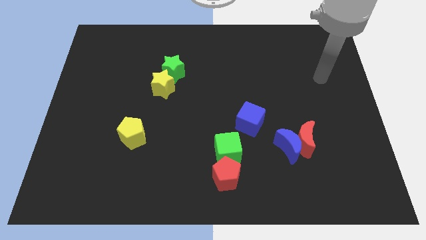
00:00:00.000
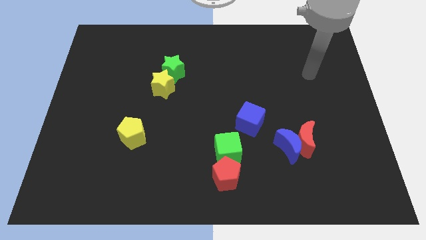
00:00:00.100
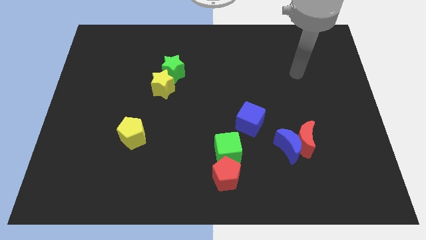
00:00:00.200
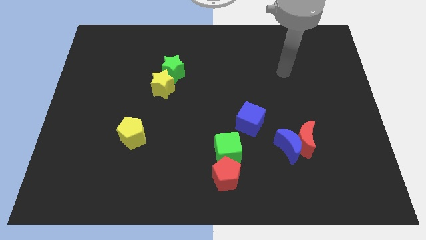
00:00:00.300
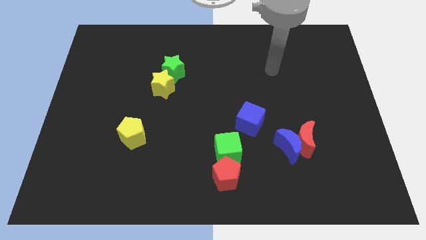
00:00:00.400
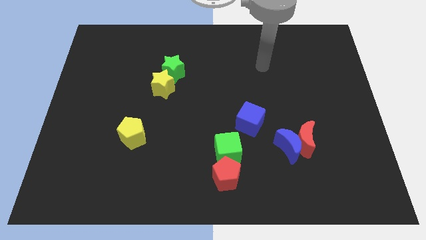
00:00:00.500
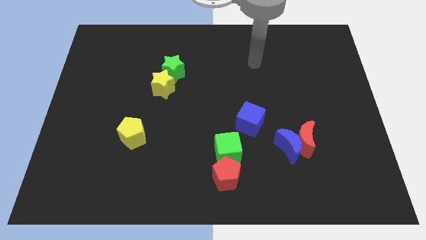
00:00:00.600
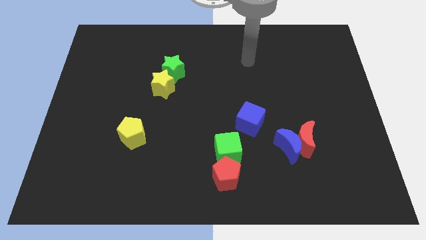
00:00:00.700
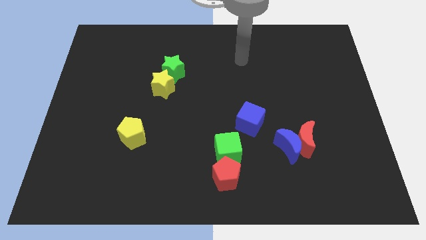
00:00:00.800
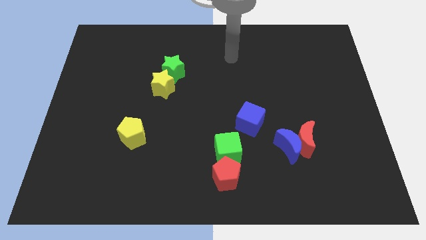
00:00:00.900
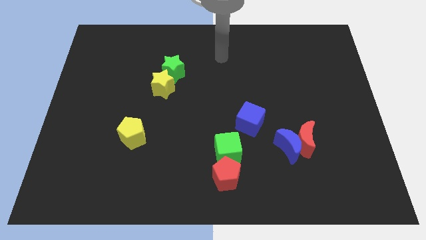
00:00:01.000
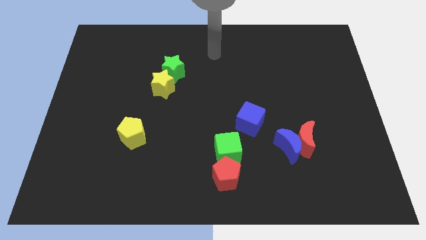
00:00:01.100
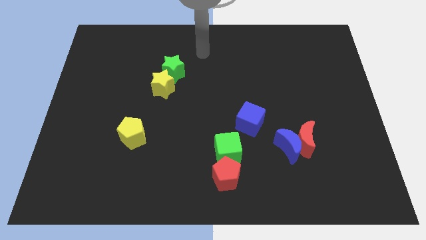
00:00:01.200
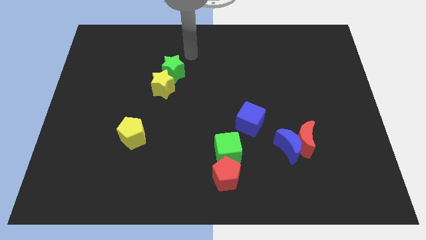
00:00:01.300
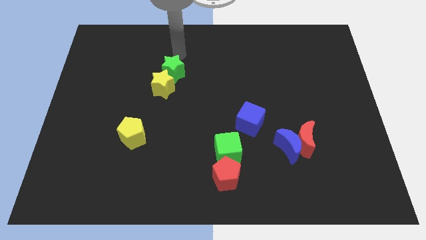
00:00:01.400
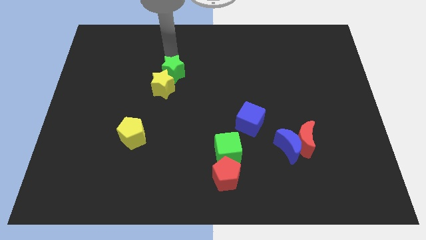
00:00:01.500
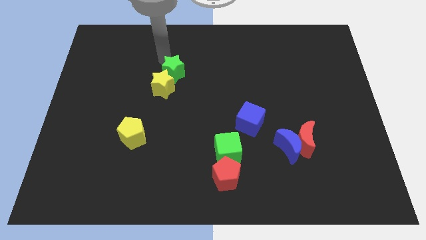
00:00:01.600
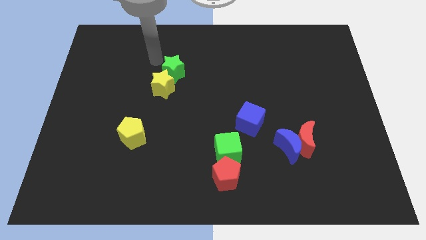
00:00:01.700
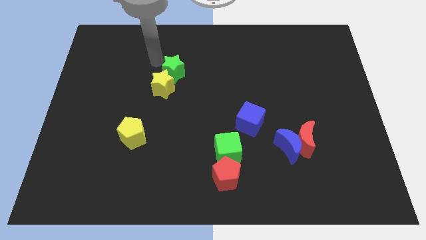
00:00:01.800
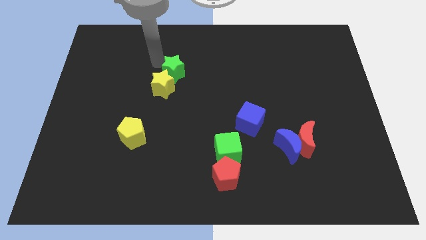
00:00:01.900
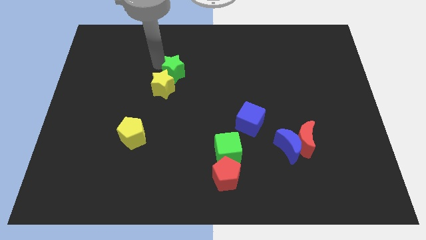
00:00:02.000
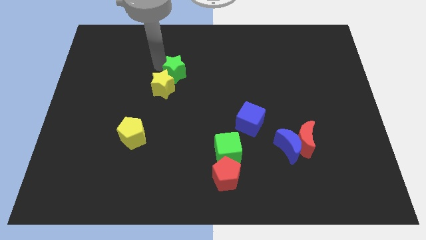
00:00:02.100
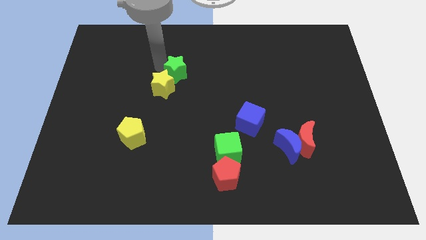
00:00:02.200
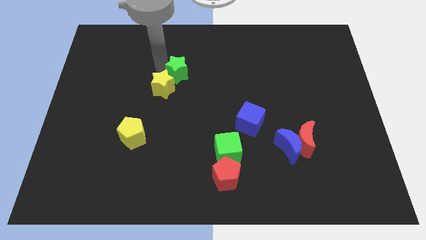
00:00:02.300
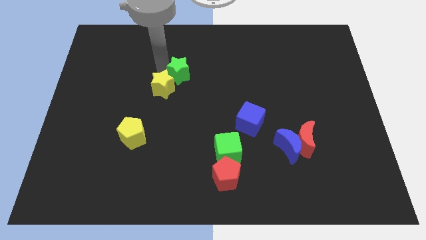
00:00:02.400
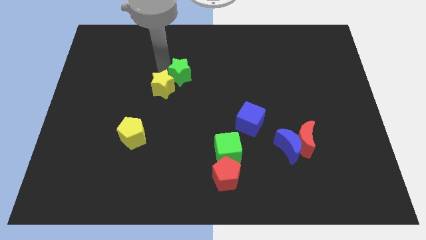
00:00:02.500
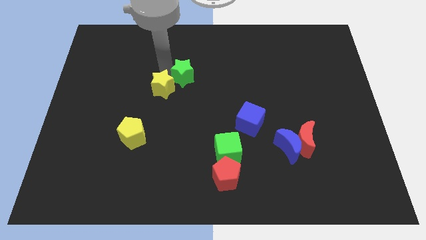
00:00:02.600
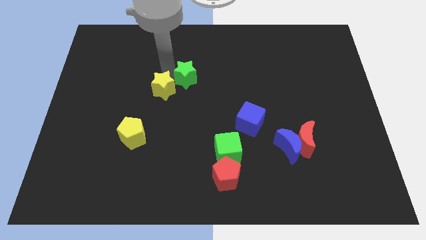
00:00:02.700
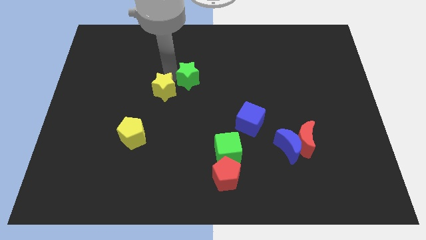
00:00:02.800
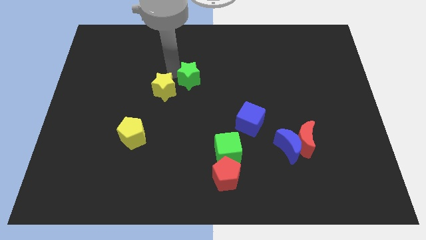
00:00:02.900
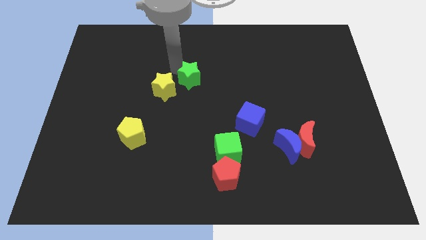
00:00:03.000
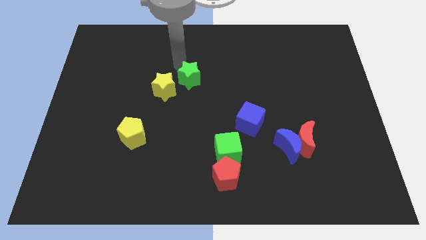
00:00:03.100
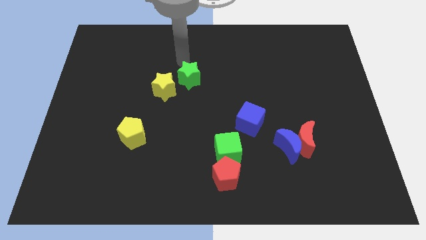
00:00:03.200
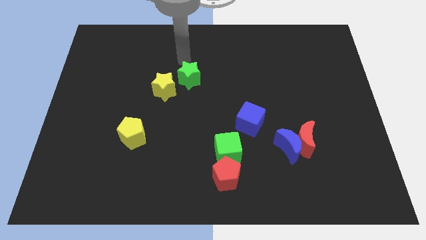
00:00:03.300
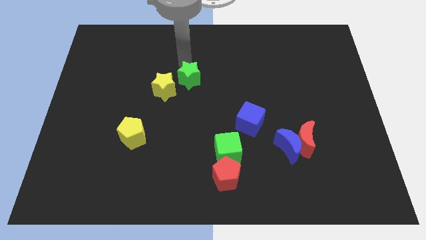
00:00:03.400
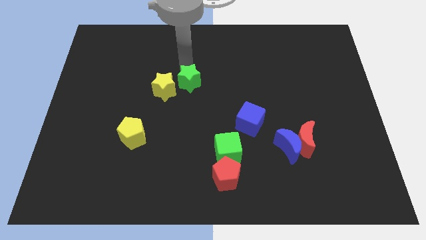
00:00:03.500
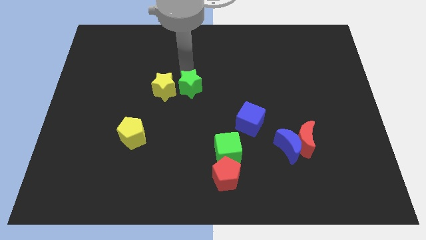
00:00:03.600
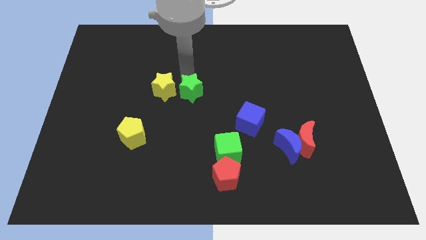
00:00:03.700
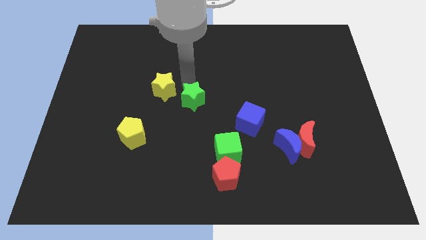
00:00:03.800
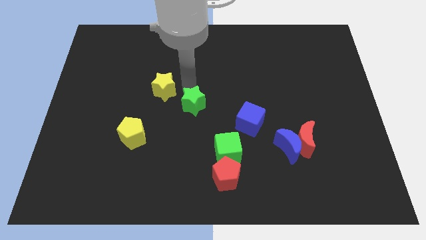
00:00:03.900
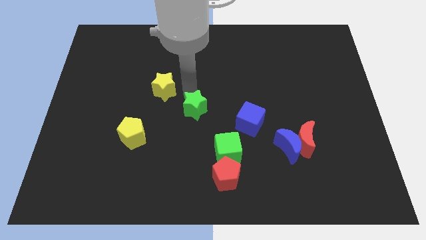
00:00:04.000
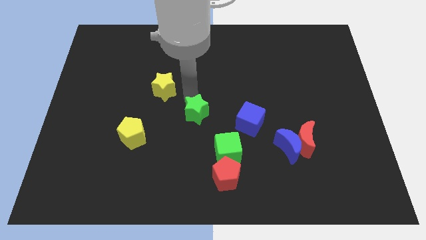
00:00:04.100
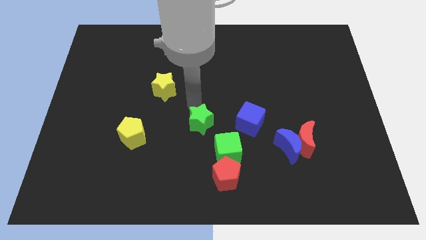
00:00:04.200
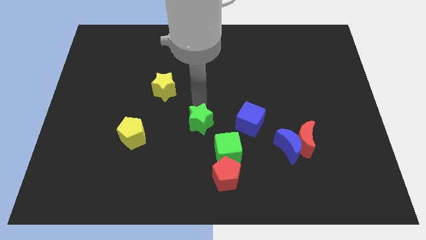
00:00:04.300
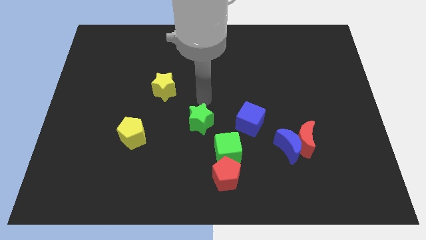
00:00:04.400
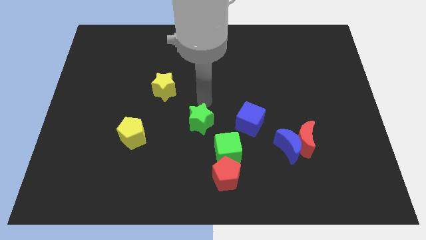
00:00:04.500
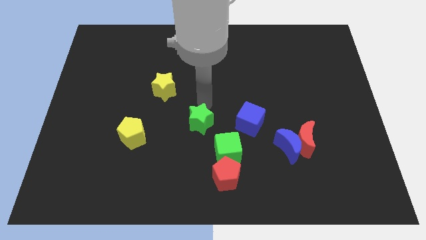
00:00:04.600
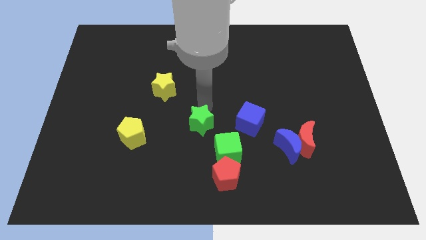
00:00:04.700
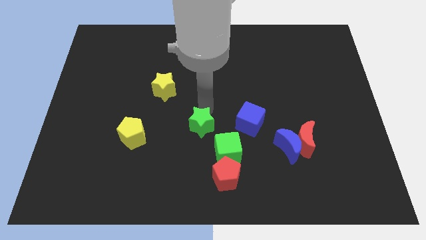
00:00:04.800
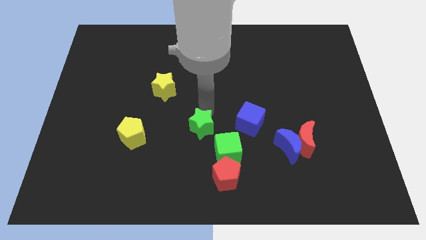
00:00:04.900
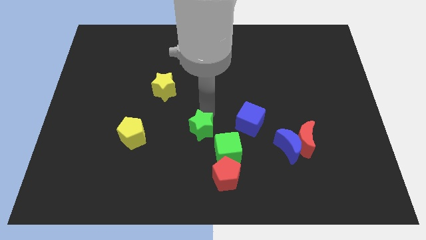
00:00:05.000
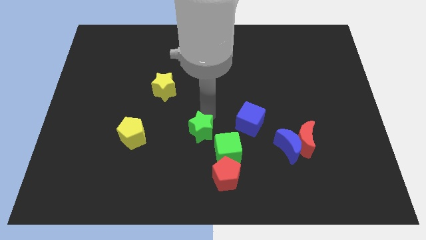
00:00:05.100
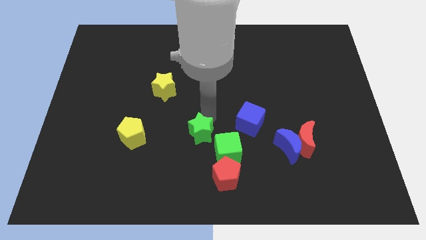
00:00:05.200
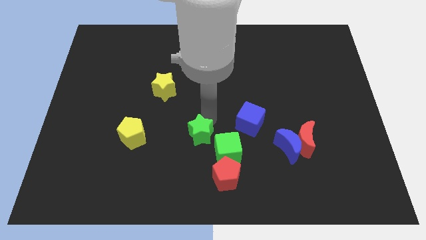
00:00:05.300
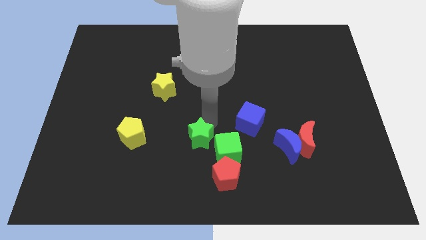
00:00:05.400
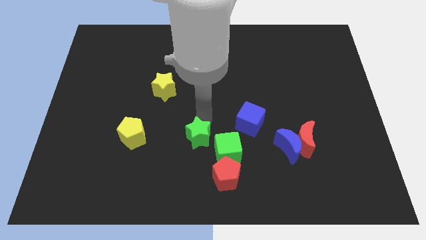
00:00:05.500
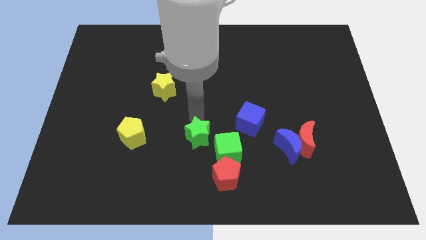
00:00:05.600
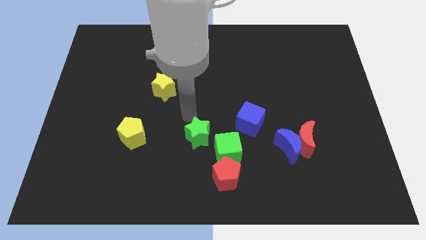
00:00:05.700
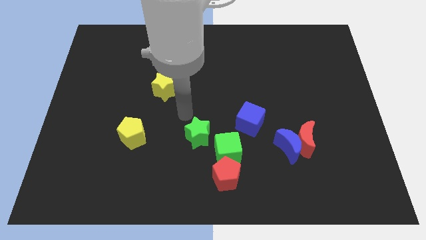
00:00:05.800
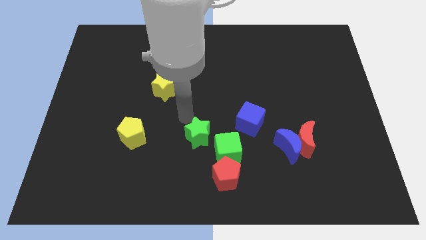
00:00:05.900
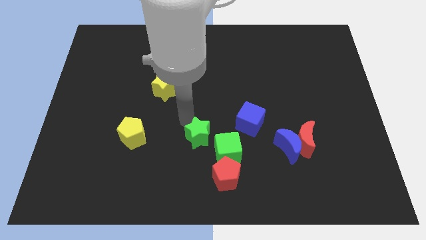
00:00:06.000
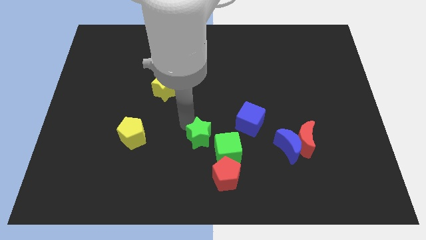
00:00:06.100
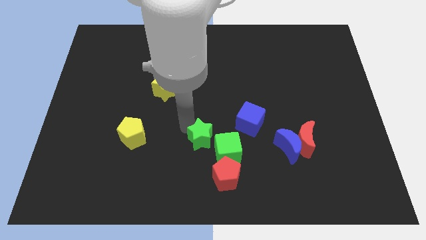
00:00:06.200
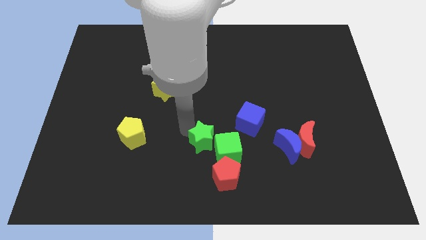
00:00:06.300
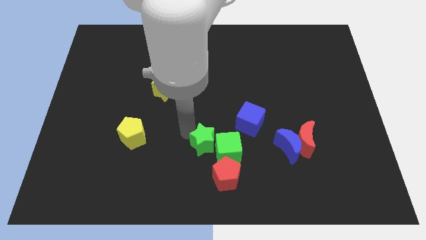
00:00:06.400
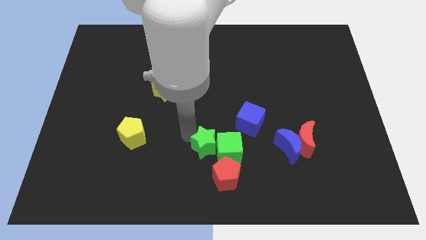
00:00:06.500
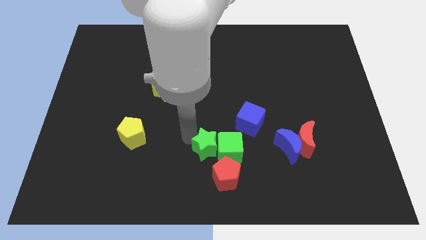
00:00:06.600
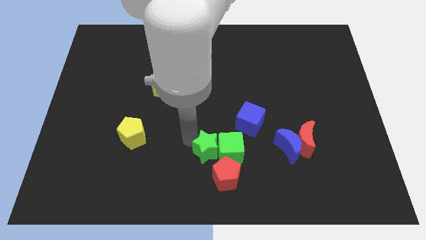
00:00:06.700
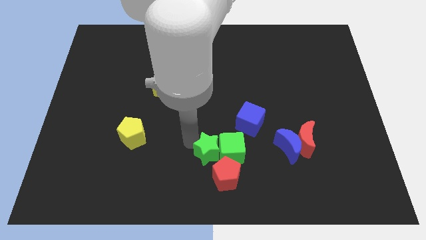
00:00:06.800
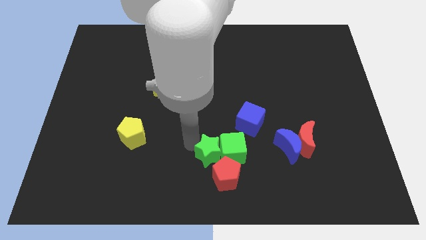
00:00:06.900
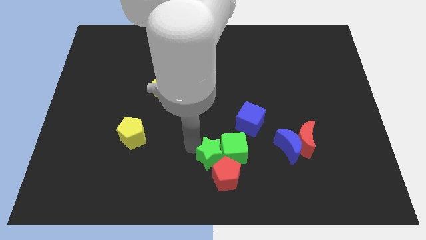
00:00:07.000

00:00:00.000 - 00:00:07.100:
put the green star next to the red pentagon
